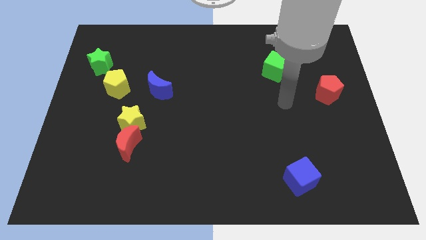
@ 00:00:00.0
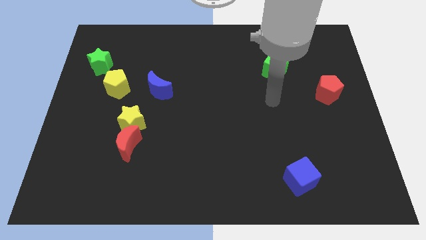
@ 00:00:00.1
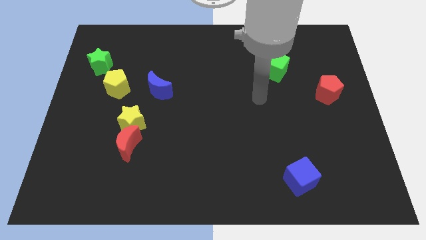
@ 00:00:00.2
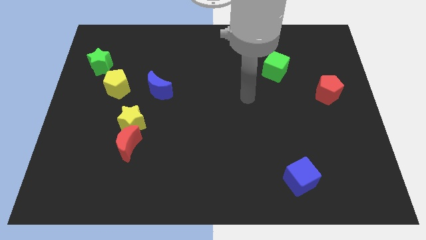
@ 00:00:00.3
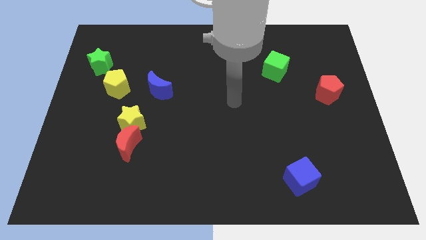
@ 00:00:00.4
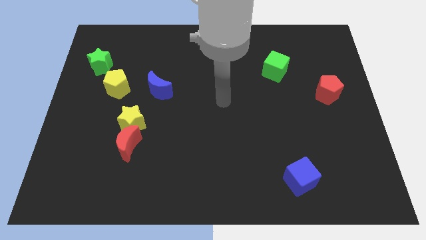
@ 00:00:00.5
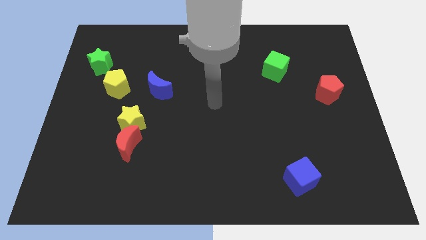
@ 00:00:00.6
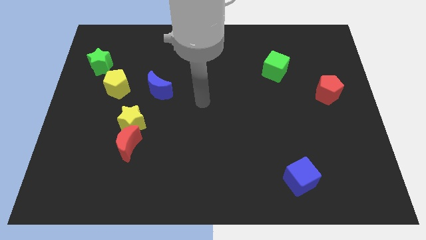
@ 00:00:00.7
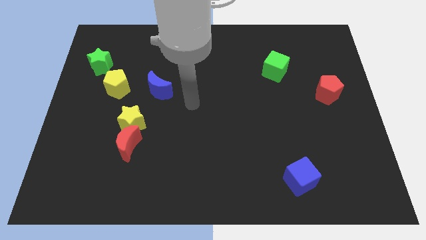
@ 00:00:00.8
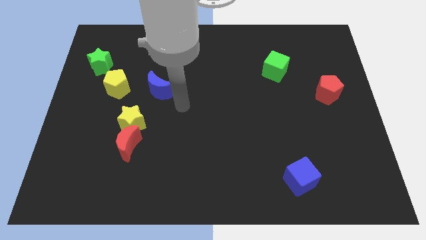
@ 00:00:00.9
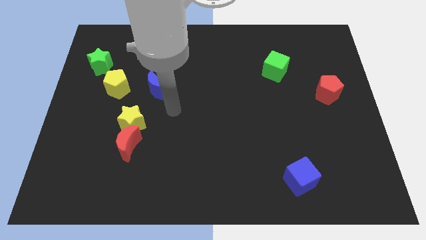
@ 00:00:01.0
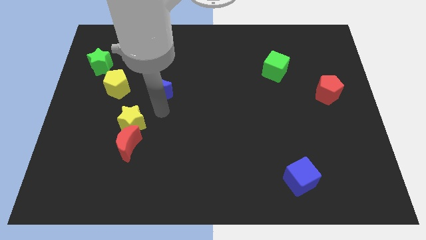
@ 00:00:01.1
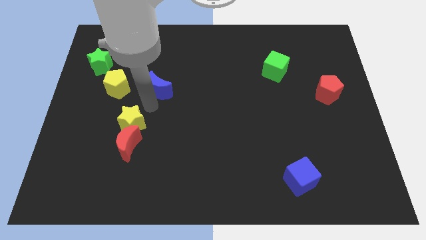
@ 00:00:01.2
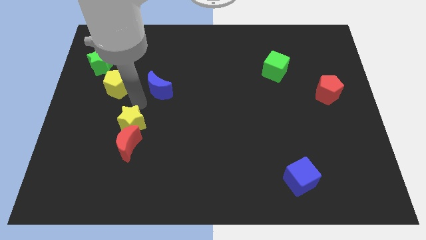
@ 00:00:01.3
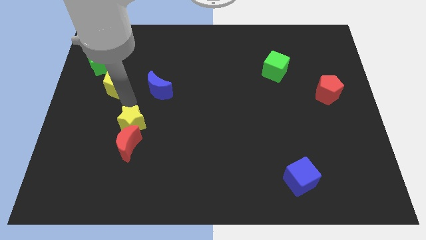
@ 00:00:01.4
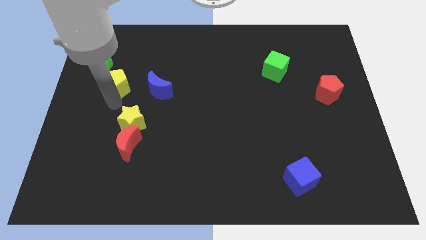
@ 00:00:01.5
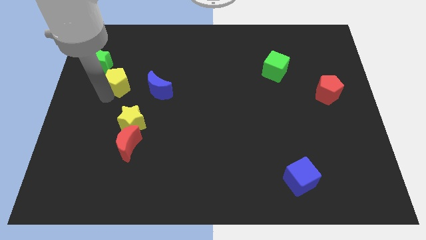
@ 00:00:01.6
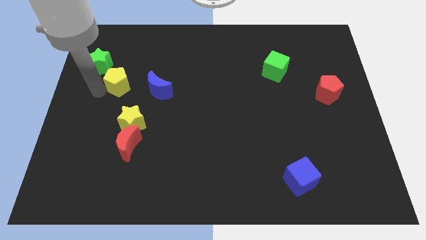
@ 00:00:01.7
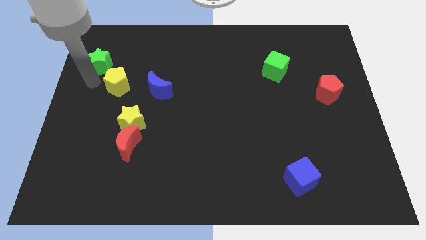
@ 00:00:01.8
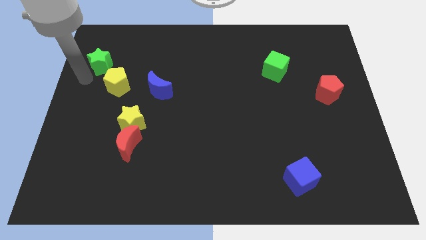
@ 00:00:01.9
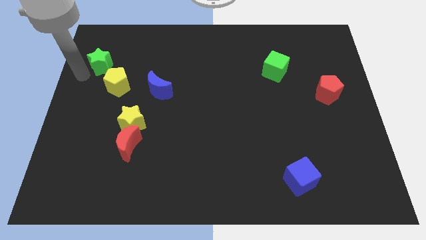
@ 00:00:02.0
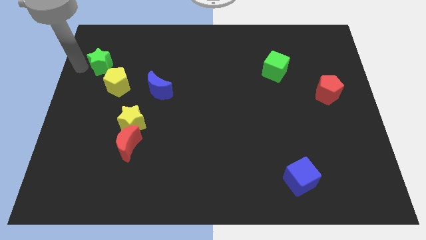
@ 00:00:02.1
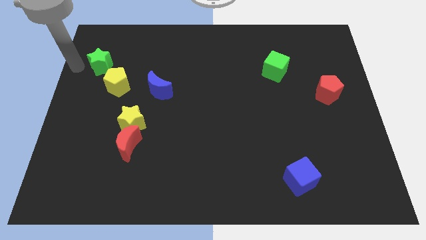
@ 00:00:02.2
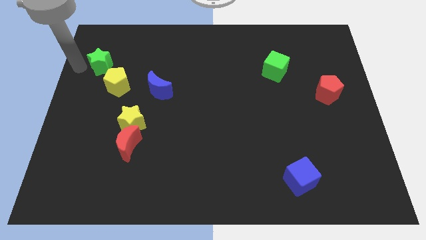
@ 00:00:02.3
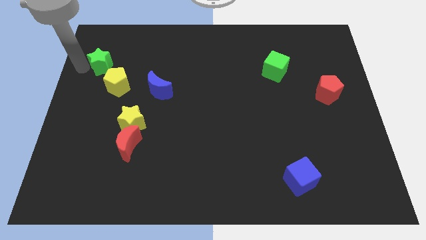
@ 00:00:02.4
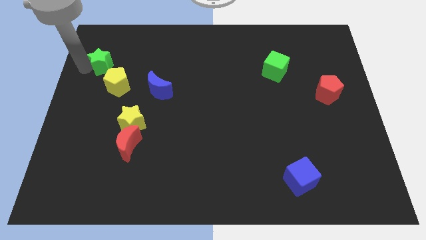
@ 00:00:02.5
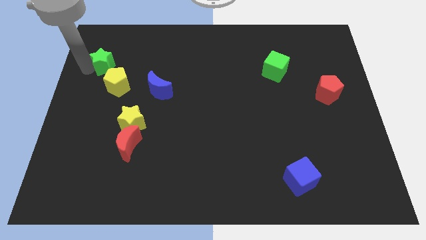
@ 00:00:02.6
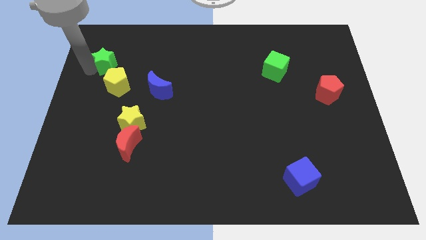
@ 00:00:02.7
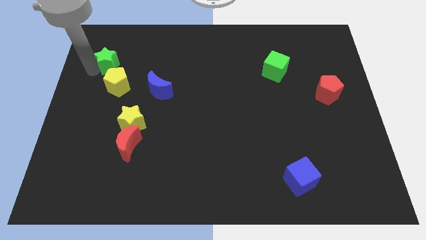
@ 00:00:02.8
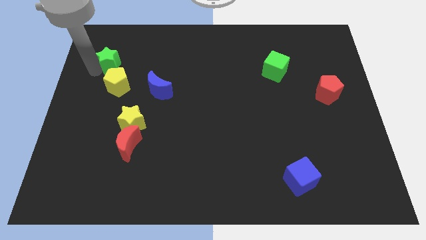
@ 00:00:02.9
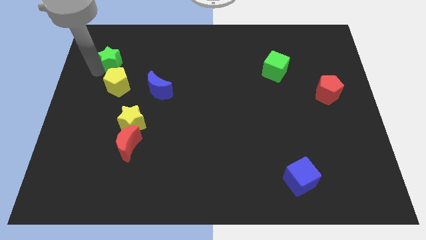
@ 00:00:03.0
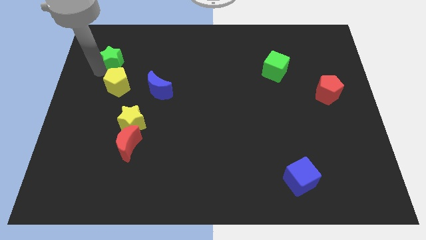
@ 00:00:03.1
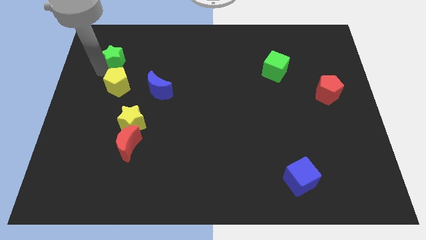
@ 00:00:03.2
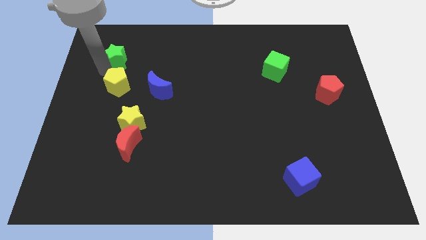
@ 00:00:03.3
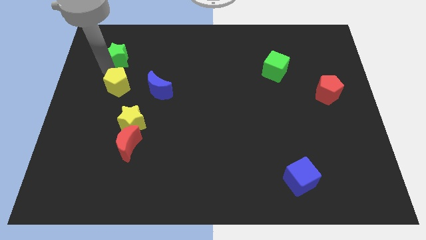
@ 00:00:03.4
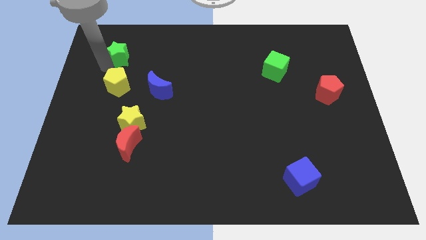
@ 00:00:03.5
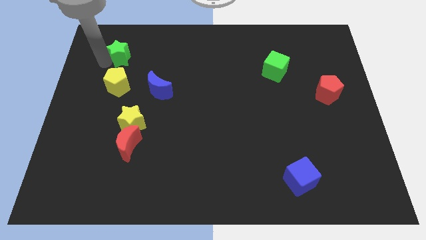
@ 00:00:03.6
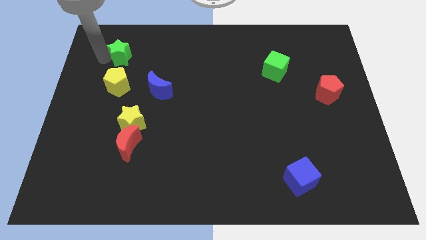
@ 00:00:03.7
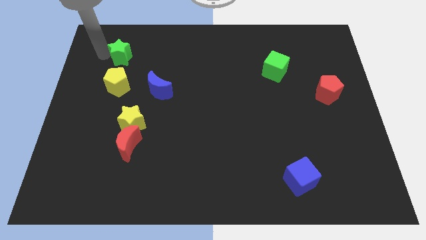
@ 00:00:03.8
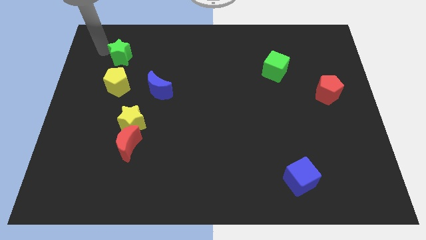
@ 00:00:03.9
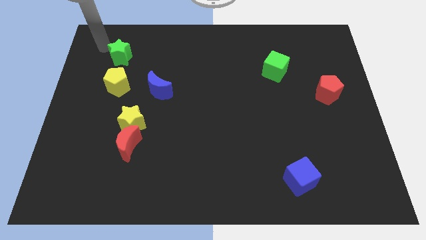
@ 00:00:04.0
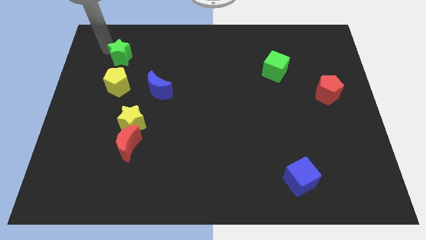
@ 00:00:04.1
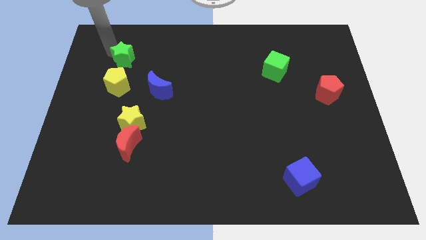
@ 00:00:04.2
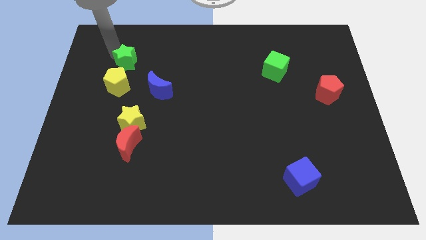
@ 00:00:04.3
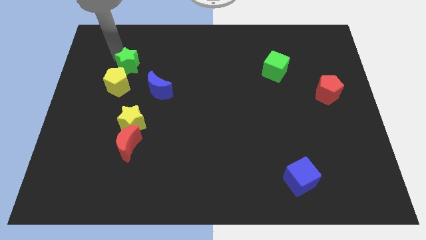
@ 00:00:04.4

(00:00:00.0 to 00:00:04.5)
push the green star to the right a little

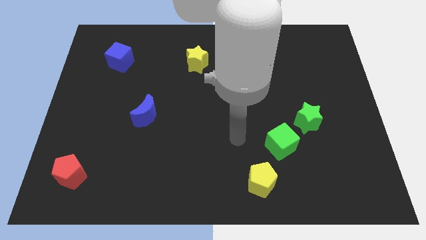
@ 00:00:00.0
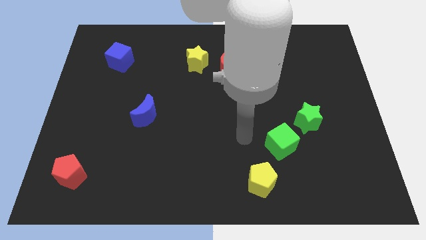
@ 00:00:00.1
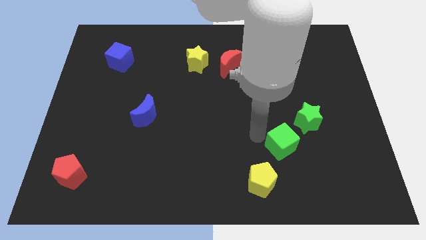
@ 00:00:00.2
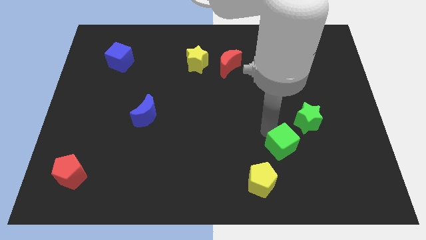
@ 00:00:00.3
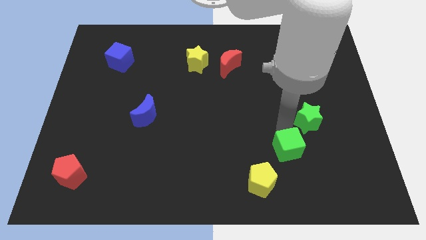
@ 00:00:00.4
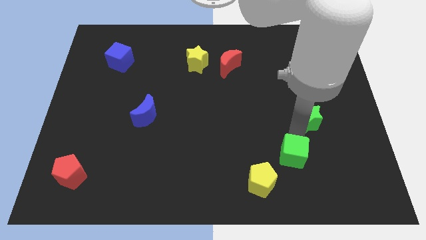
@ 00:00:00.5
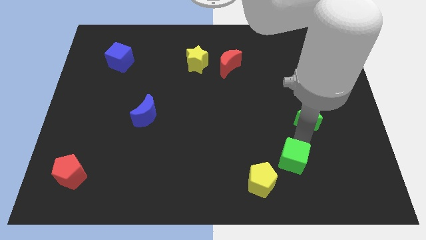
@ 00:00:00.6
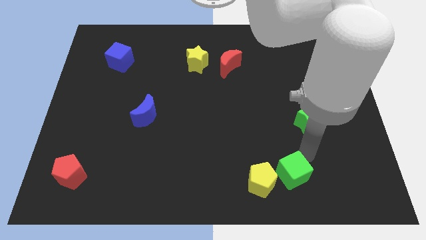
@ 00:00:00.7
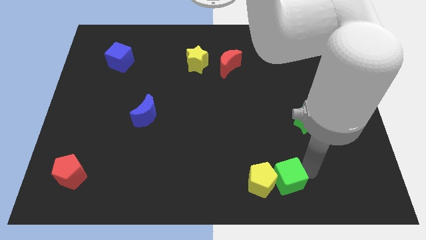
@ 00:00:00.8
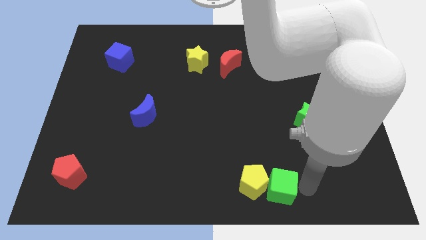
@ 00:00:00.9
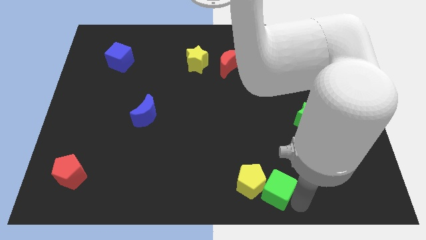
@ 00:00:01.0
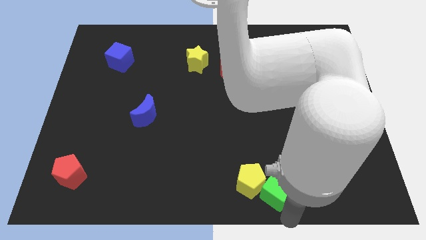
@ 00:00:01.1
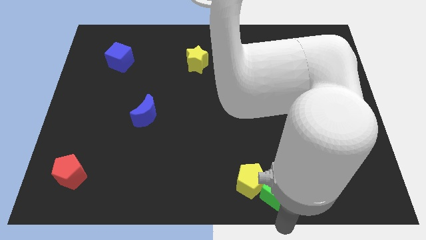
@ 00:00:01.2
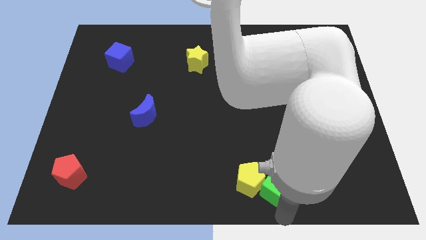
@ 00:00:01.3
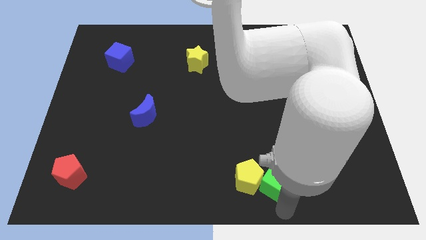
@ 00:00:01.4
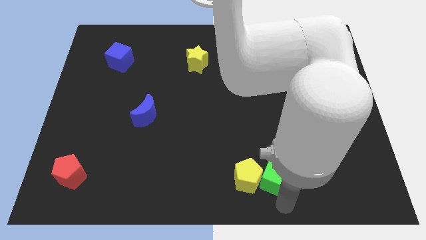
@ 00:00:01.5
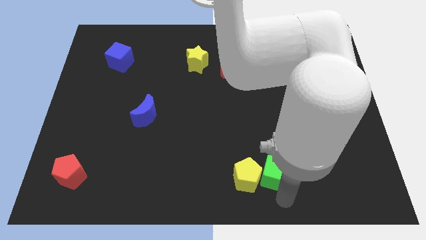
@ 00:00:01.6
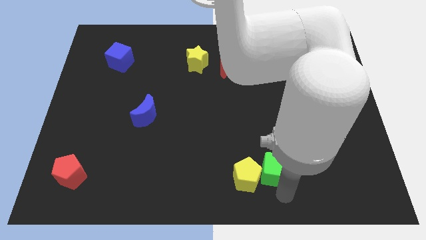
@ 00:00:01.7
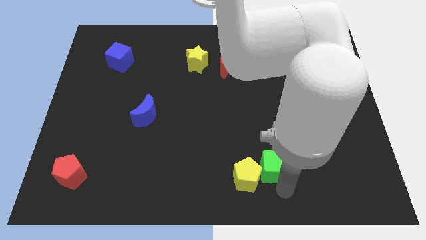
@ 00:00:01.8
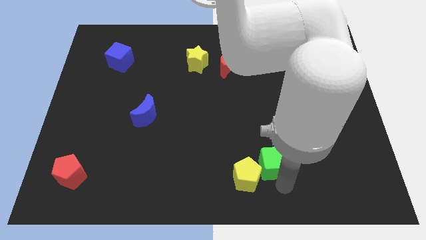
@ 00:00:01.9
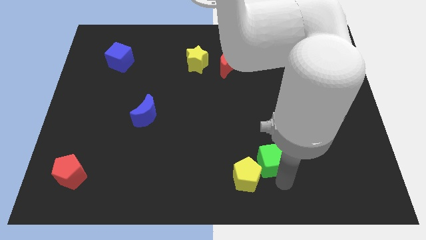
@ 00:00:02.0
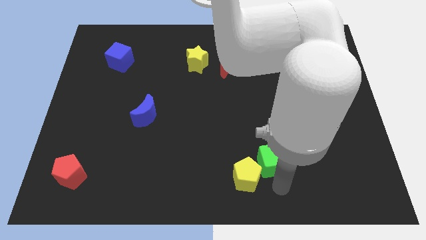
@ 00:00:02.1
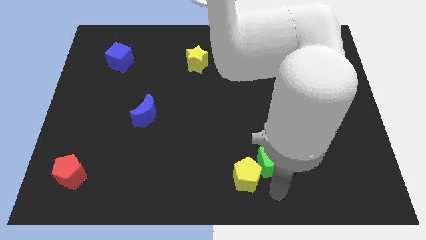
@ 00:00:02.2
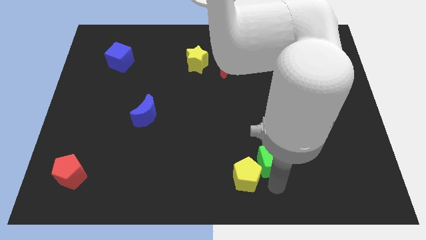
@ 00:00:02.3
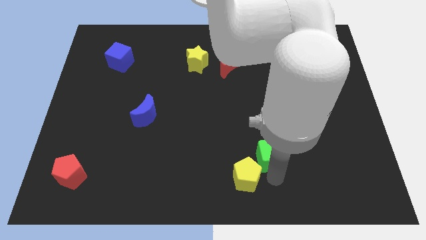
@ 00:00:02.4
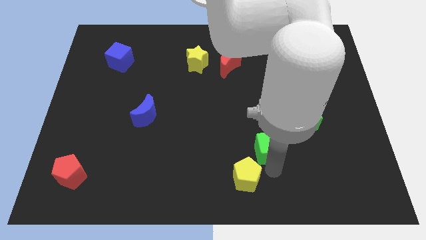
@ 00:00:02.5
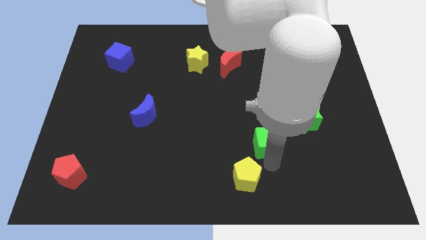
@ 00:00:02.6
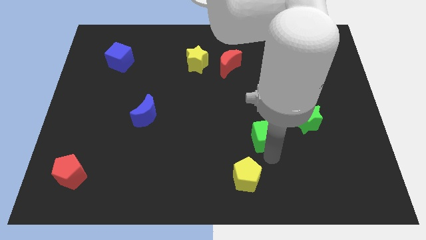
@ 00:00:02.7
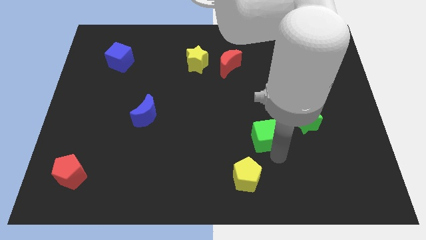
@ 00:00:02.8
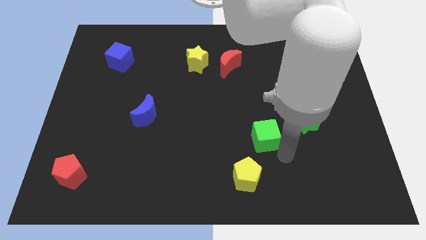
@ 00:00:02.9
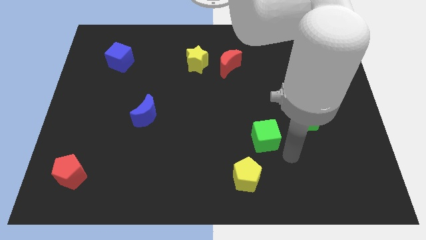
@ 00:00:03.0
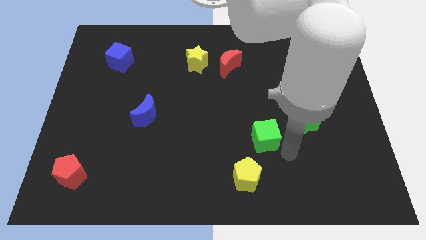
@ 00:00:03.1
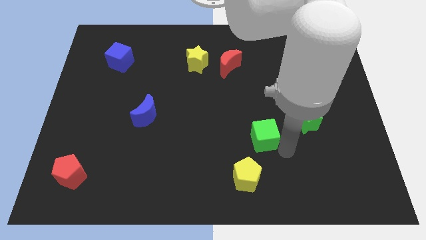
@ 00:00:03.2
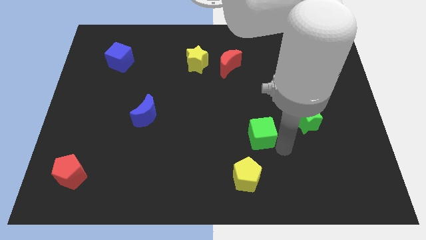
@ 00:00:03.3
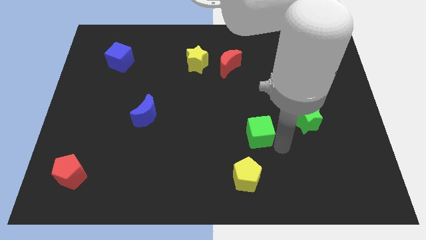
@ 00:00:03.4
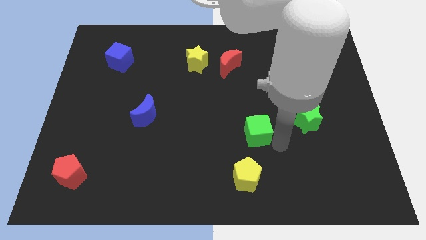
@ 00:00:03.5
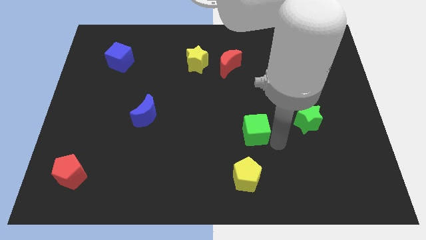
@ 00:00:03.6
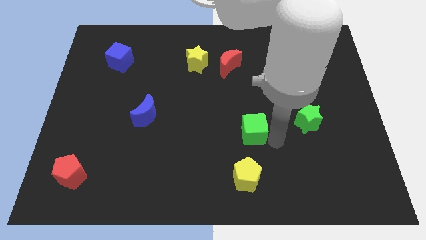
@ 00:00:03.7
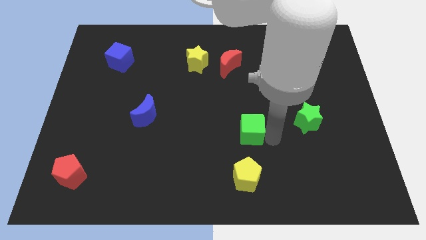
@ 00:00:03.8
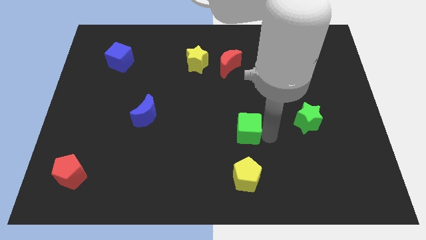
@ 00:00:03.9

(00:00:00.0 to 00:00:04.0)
push the green cube a little bit upwards and then left
